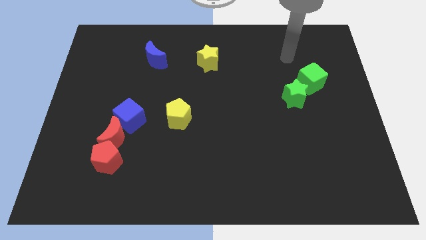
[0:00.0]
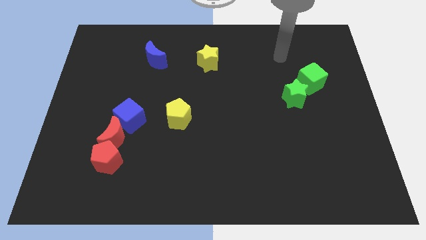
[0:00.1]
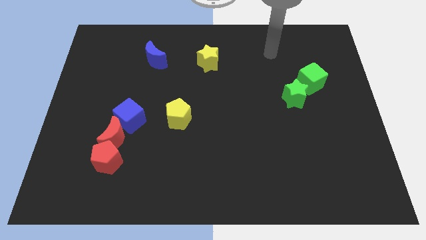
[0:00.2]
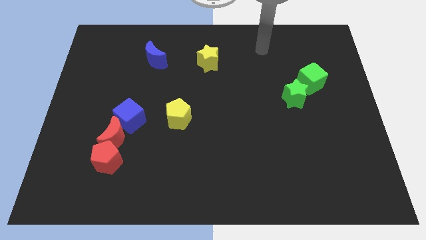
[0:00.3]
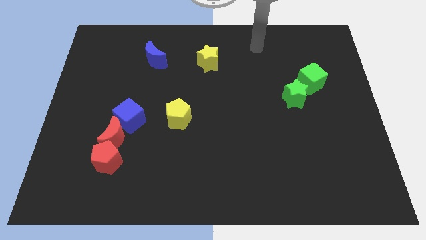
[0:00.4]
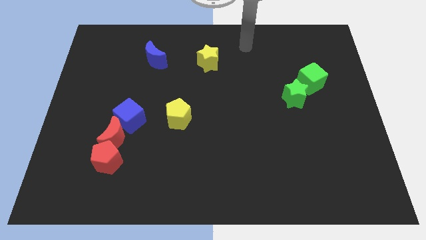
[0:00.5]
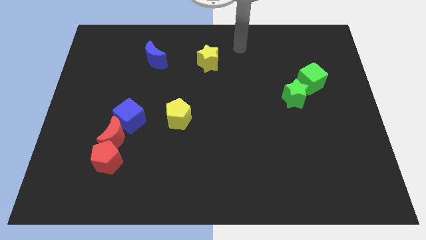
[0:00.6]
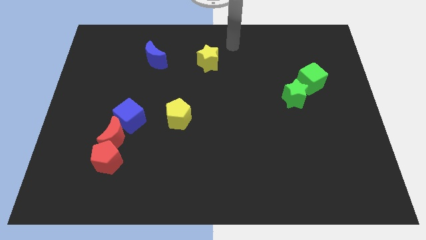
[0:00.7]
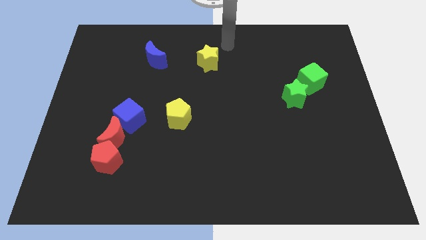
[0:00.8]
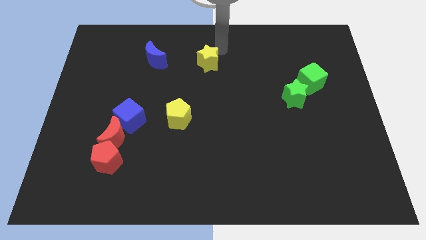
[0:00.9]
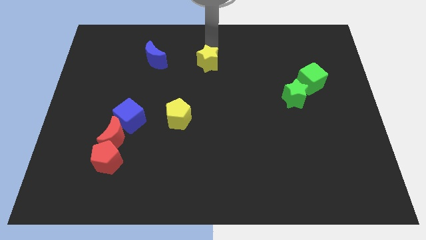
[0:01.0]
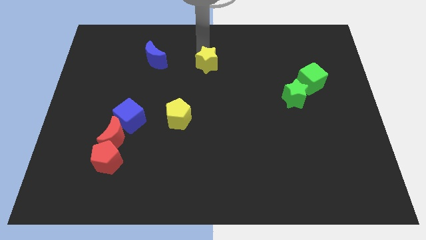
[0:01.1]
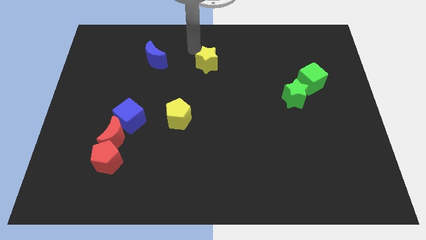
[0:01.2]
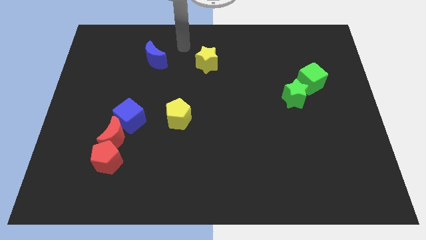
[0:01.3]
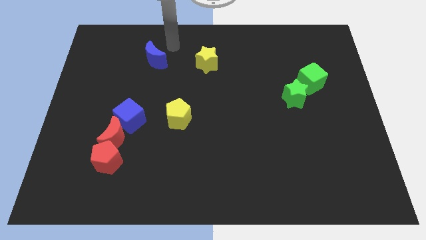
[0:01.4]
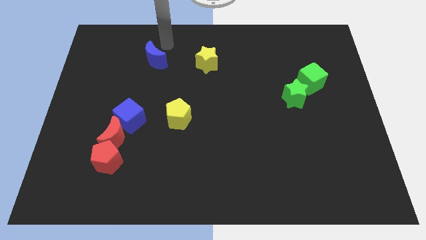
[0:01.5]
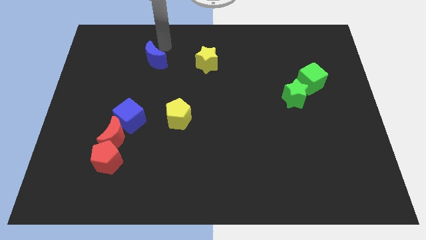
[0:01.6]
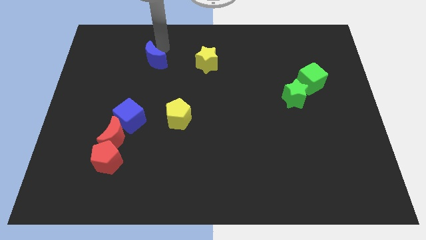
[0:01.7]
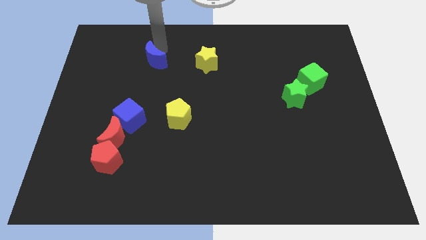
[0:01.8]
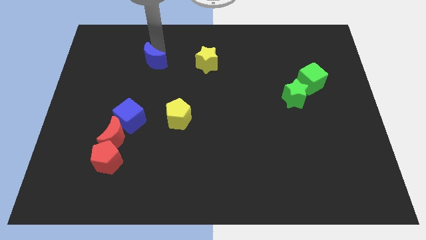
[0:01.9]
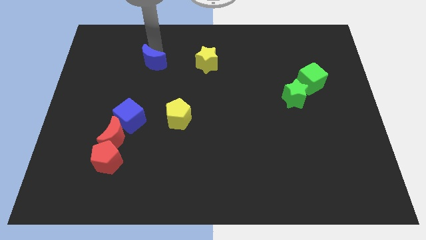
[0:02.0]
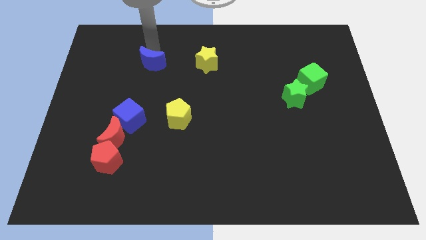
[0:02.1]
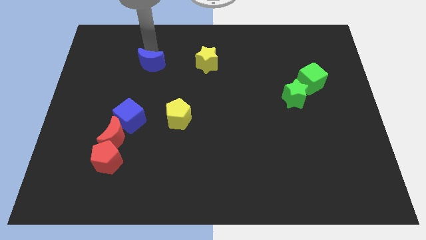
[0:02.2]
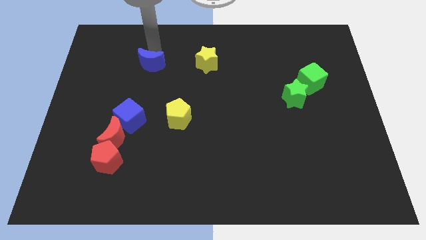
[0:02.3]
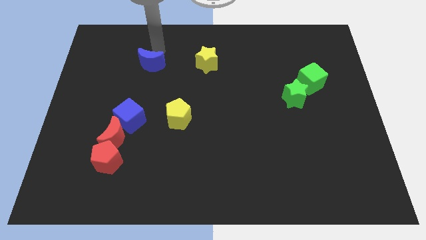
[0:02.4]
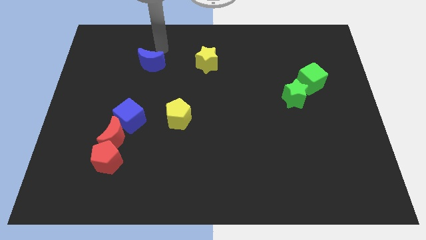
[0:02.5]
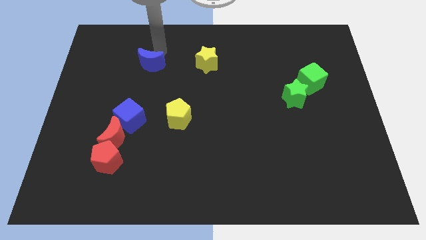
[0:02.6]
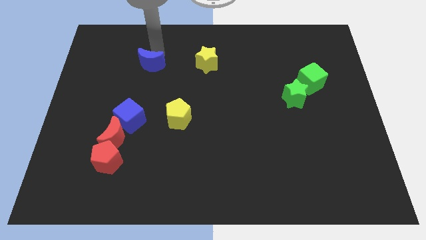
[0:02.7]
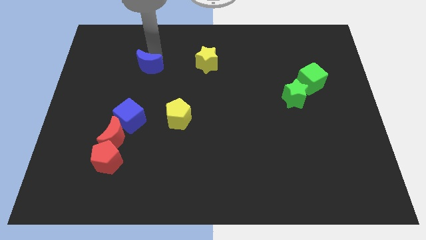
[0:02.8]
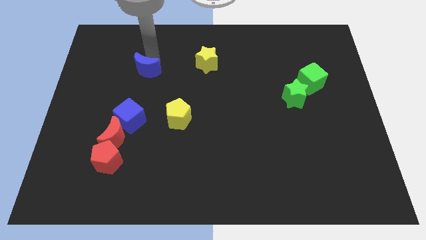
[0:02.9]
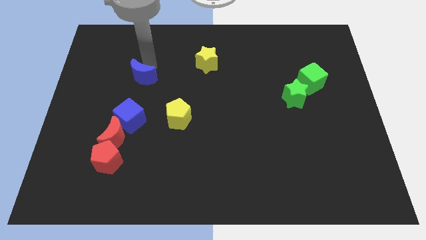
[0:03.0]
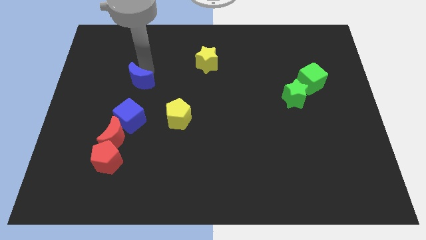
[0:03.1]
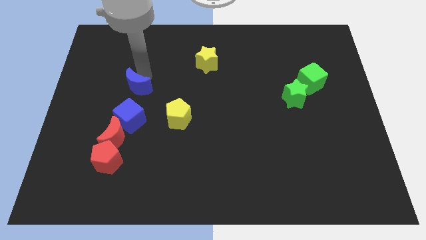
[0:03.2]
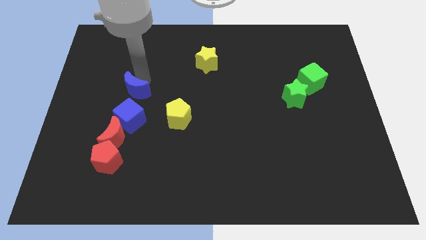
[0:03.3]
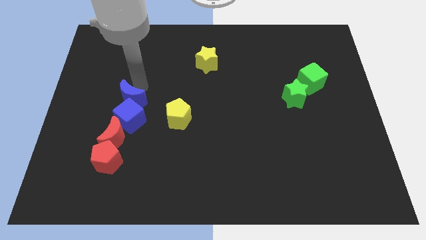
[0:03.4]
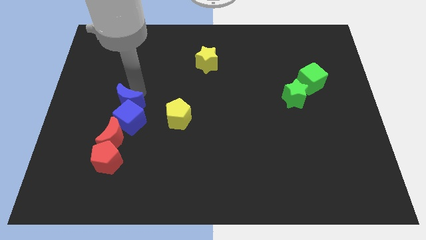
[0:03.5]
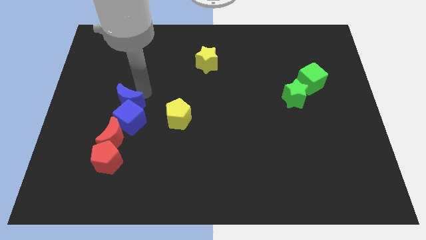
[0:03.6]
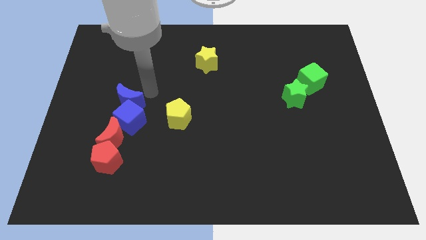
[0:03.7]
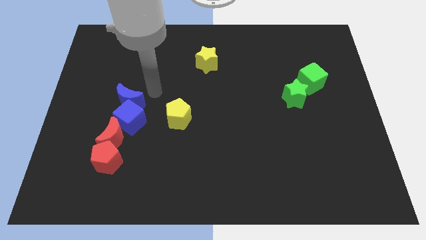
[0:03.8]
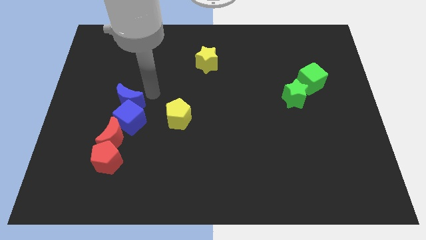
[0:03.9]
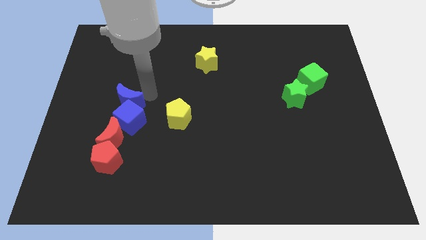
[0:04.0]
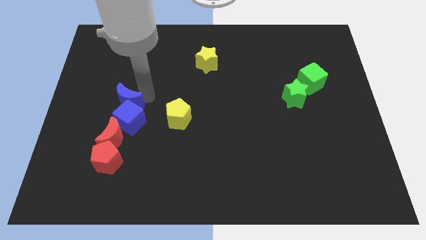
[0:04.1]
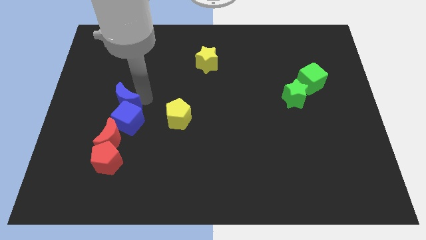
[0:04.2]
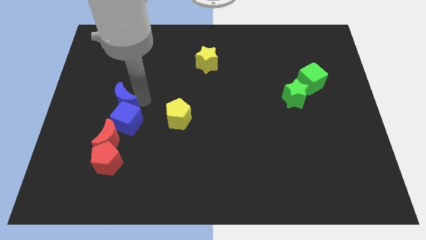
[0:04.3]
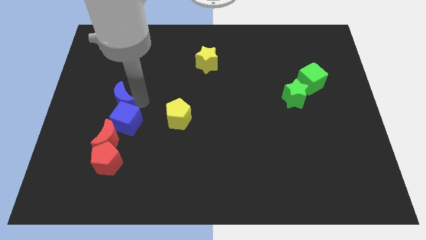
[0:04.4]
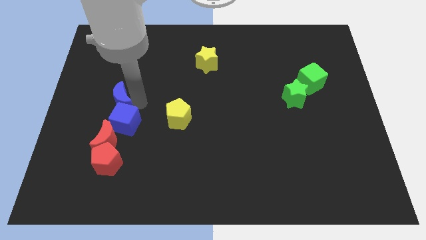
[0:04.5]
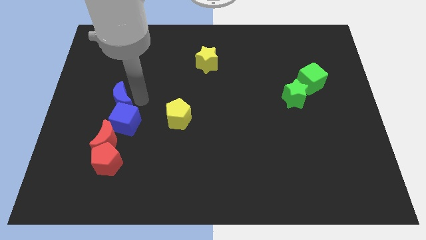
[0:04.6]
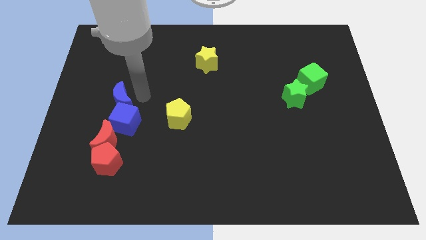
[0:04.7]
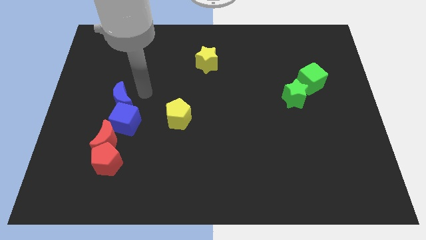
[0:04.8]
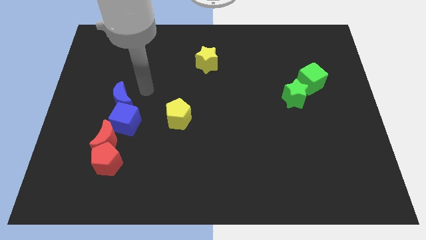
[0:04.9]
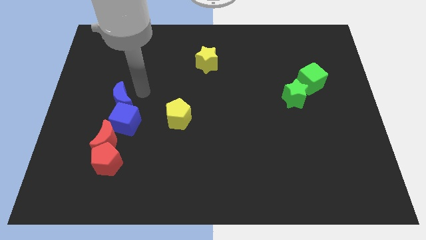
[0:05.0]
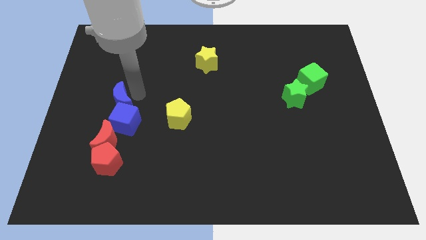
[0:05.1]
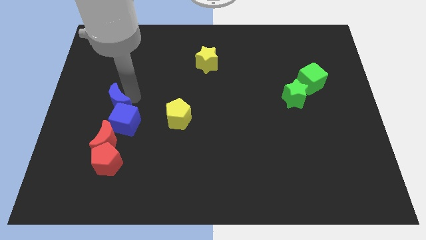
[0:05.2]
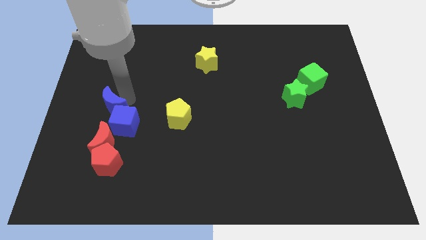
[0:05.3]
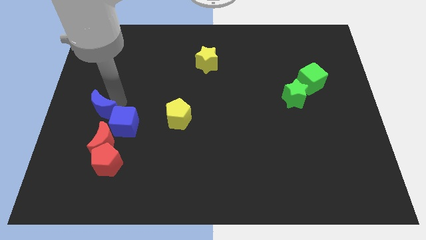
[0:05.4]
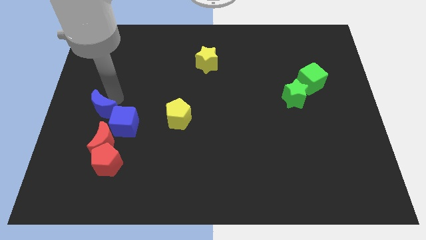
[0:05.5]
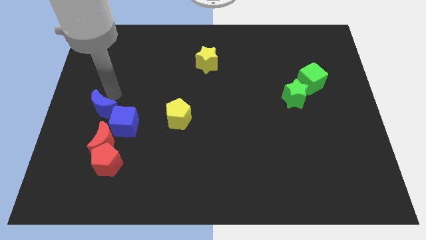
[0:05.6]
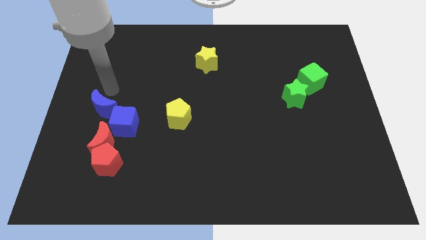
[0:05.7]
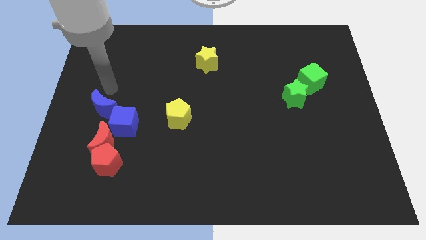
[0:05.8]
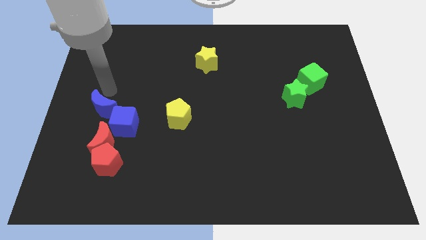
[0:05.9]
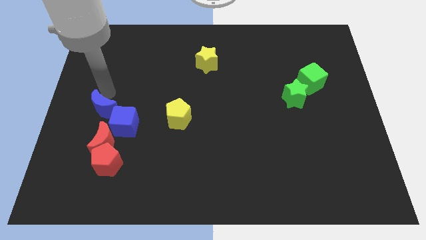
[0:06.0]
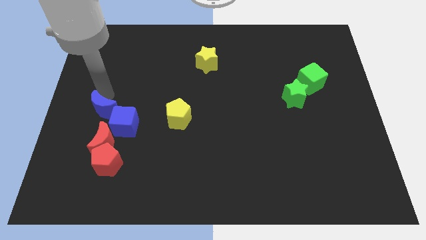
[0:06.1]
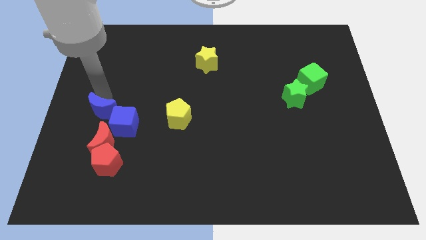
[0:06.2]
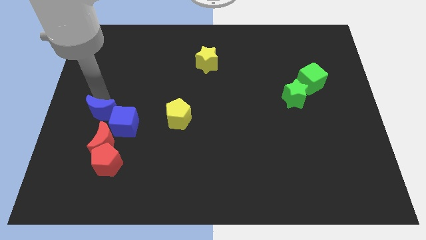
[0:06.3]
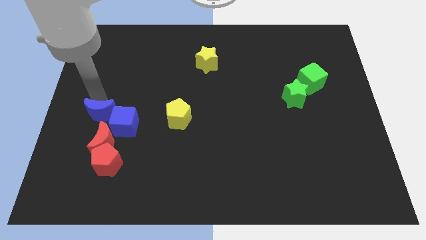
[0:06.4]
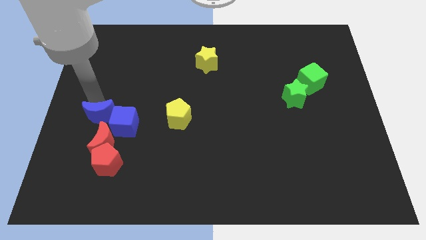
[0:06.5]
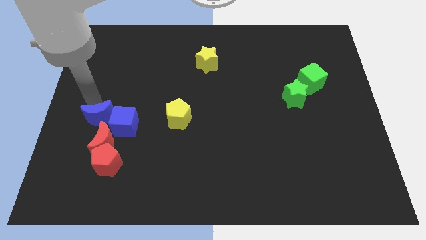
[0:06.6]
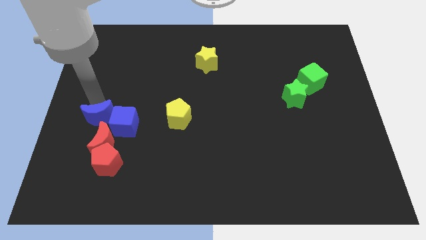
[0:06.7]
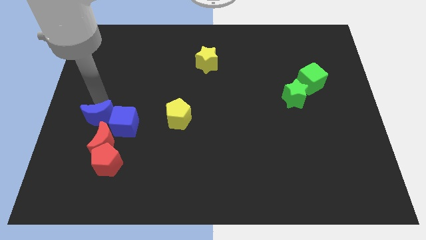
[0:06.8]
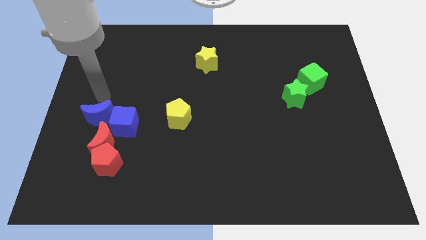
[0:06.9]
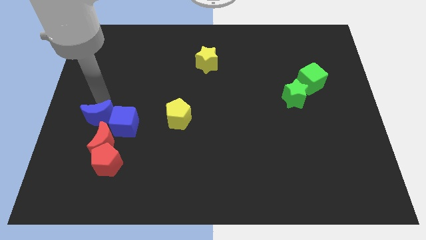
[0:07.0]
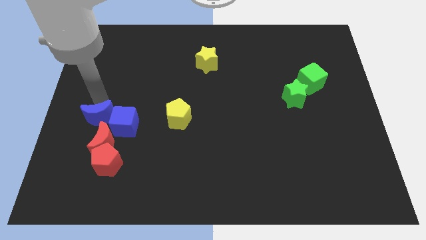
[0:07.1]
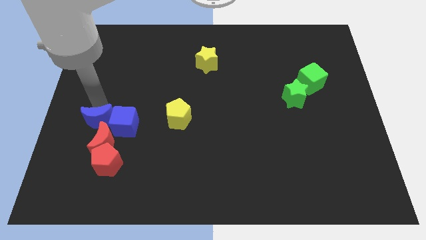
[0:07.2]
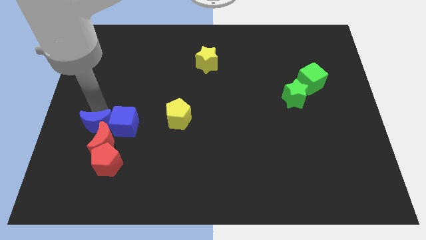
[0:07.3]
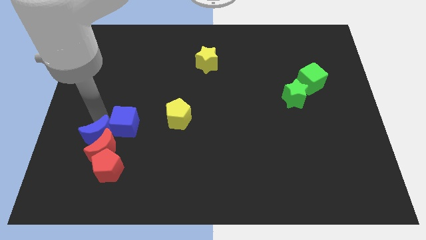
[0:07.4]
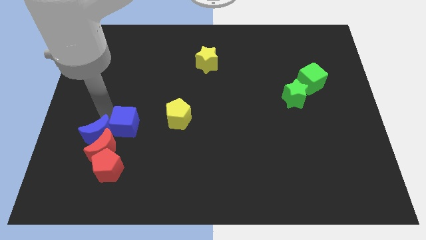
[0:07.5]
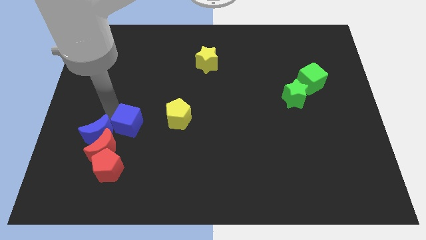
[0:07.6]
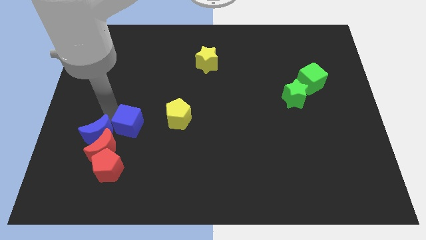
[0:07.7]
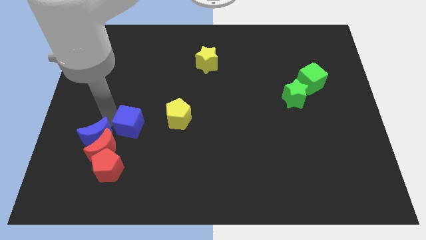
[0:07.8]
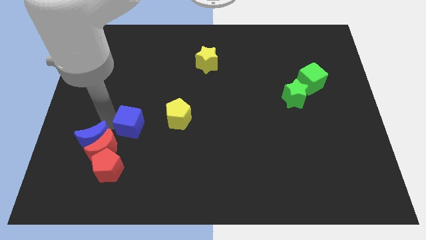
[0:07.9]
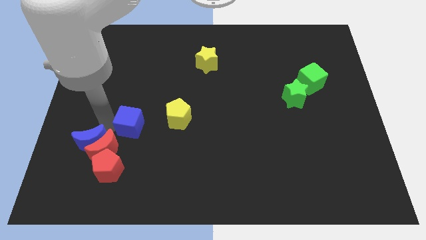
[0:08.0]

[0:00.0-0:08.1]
slide the blue moon to the bottom left of the red moon
